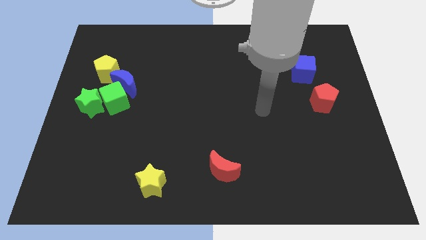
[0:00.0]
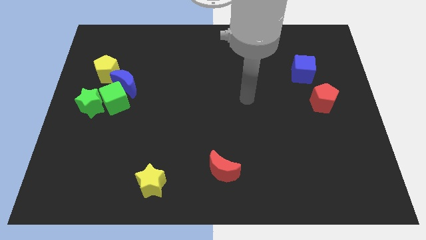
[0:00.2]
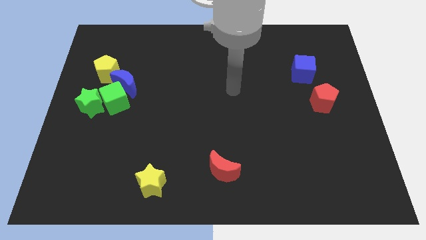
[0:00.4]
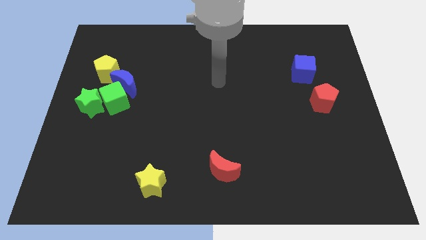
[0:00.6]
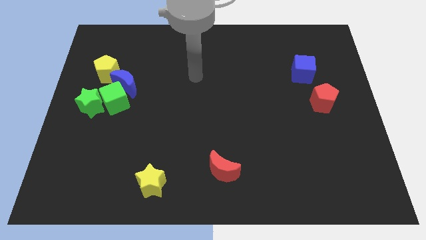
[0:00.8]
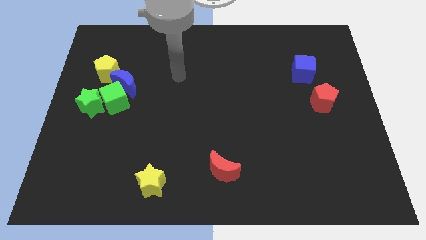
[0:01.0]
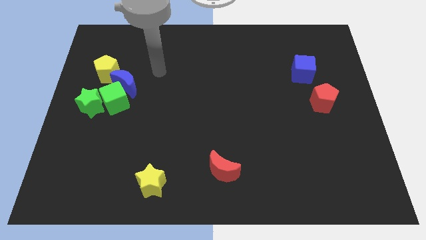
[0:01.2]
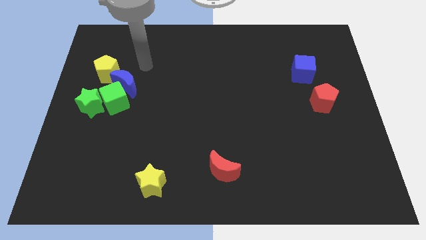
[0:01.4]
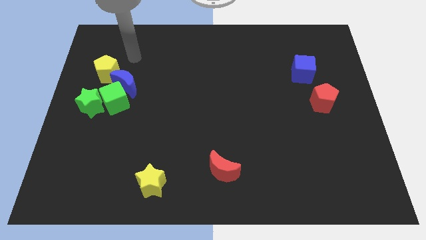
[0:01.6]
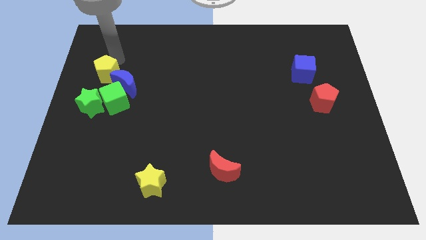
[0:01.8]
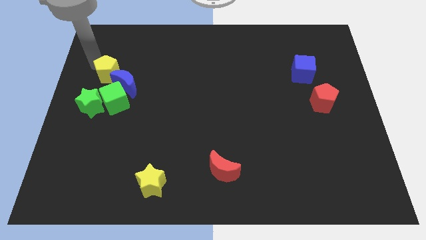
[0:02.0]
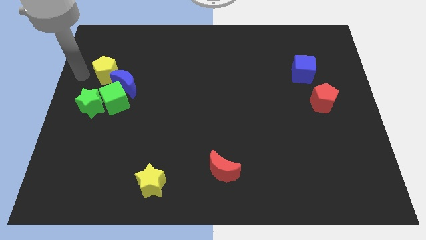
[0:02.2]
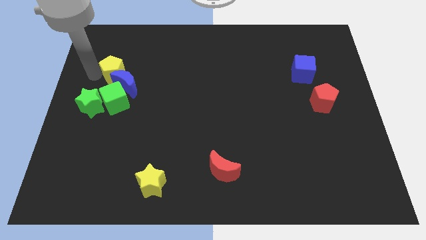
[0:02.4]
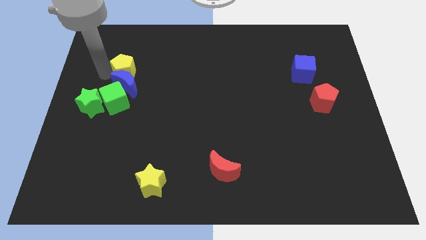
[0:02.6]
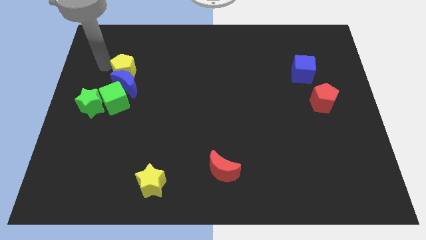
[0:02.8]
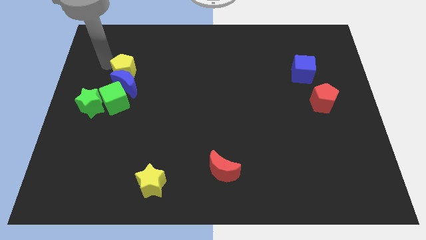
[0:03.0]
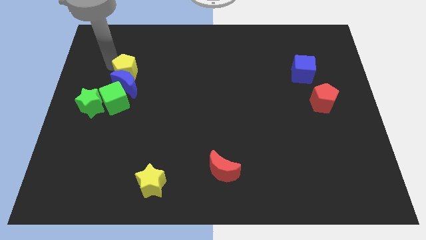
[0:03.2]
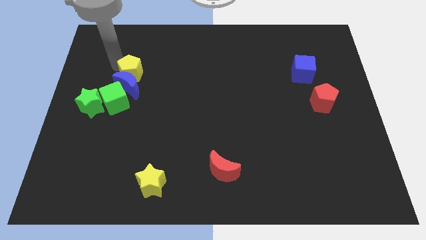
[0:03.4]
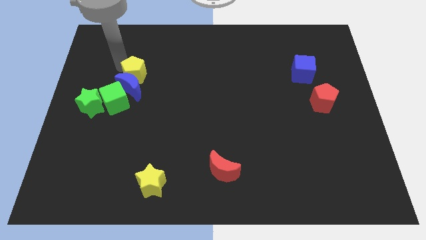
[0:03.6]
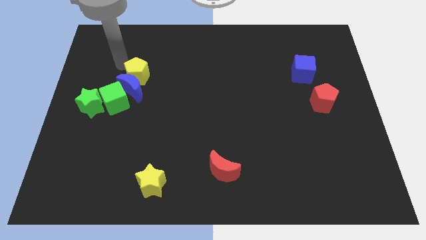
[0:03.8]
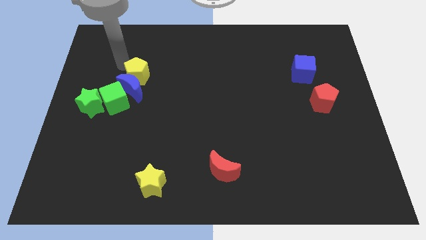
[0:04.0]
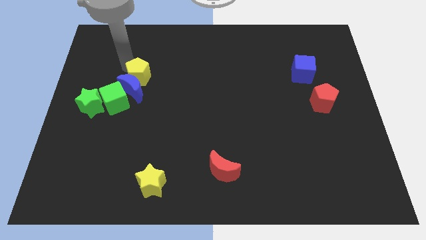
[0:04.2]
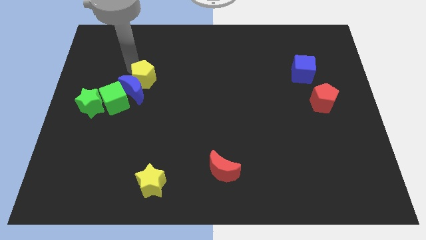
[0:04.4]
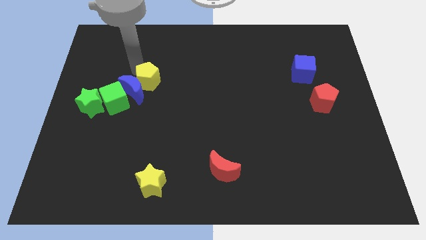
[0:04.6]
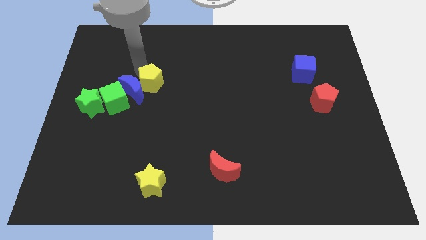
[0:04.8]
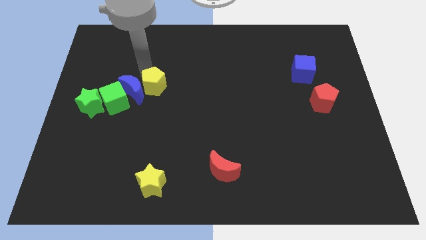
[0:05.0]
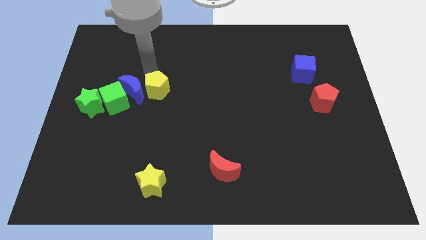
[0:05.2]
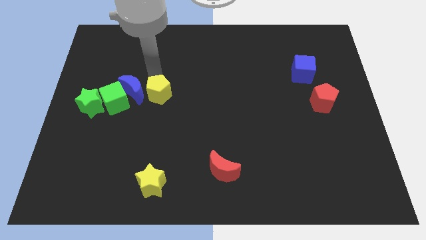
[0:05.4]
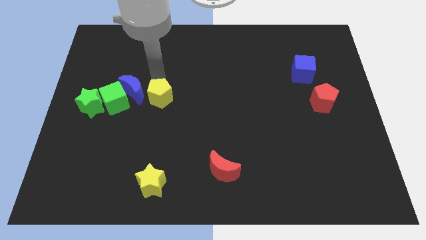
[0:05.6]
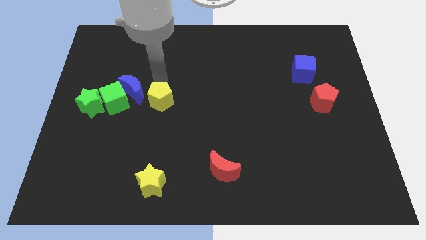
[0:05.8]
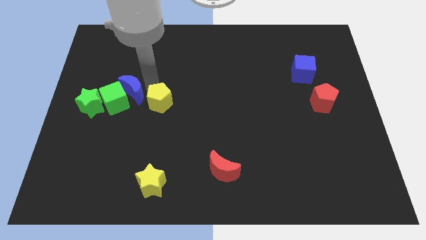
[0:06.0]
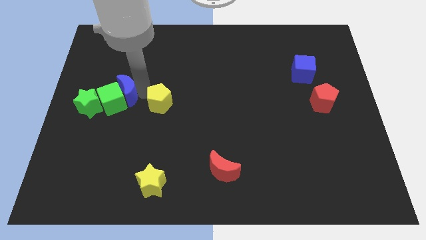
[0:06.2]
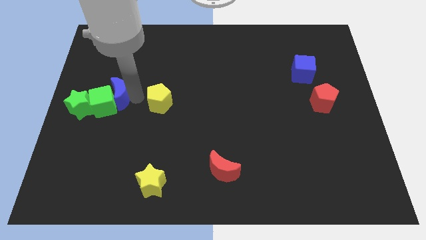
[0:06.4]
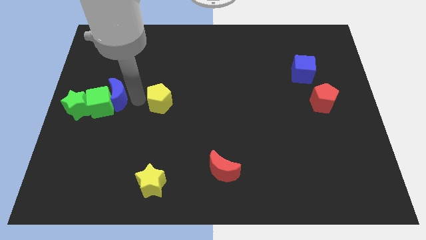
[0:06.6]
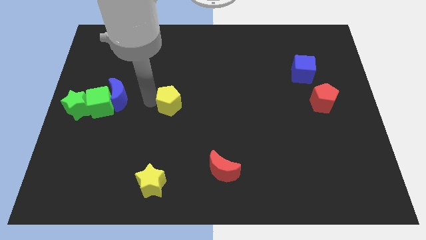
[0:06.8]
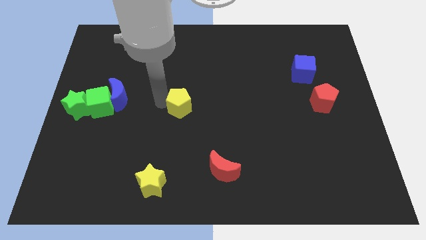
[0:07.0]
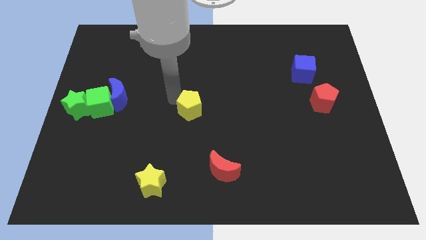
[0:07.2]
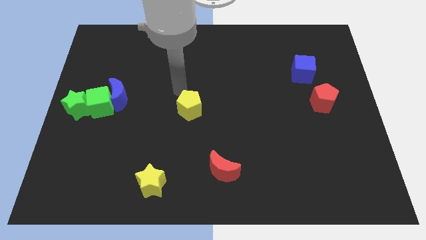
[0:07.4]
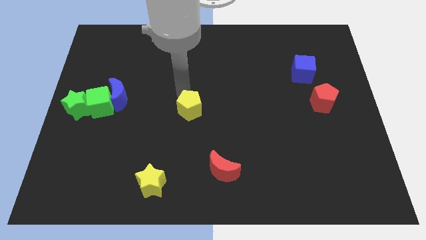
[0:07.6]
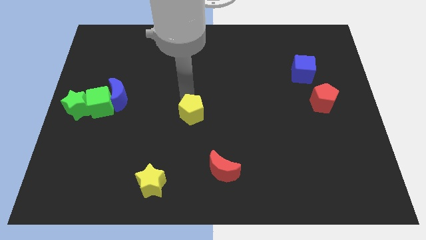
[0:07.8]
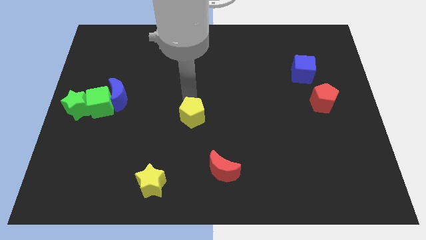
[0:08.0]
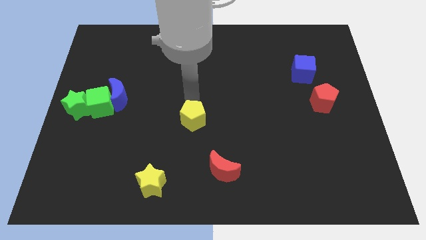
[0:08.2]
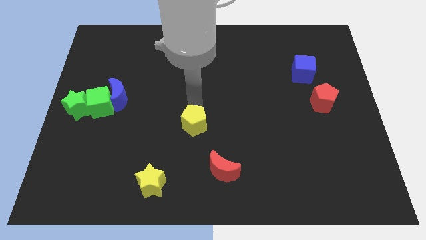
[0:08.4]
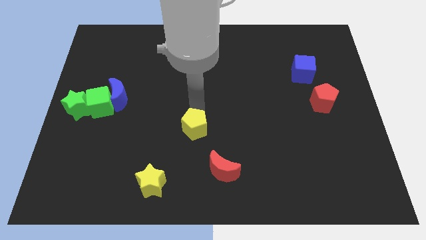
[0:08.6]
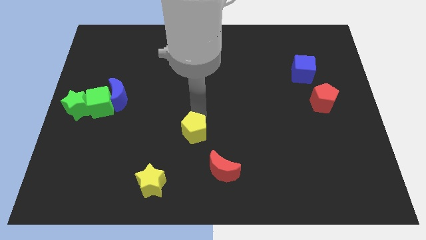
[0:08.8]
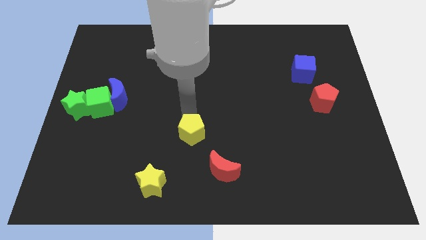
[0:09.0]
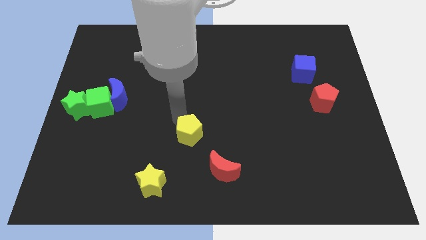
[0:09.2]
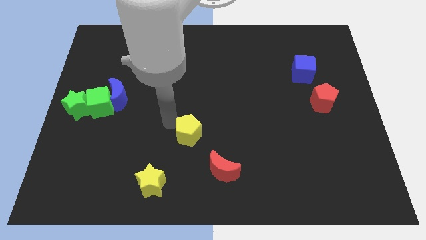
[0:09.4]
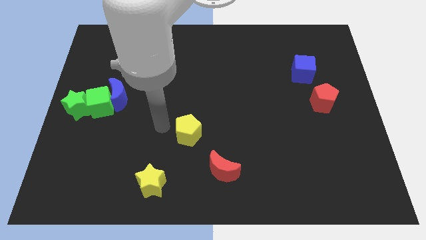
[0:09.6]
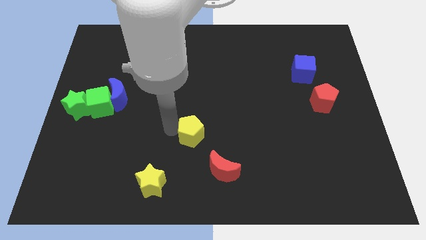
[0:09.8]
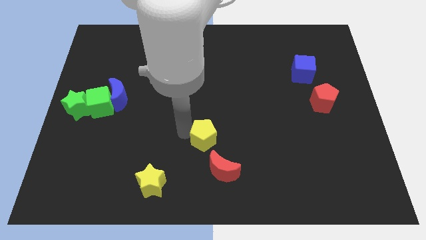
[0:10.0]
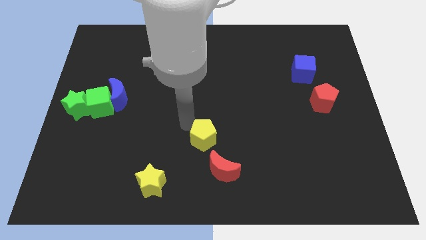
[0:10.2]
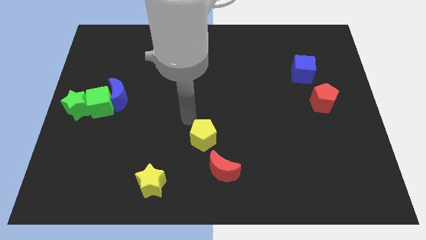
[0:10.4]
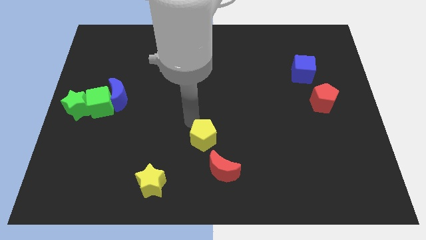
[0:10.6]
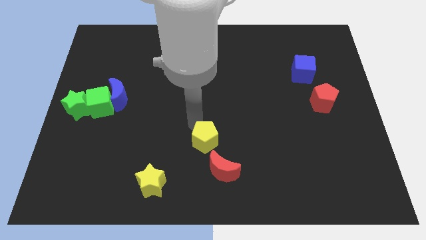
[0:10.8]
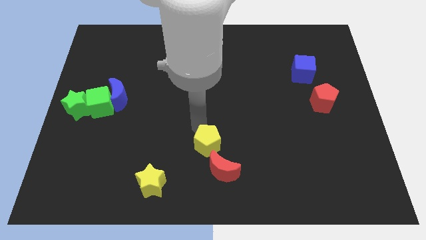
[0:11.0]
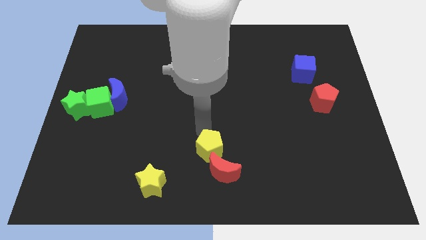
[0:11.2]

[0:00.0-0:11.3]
move the yellow pentagon towards the red moon

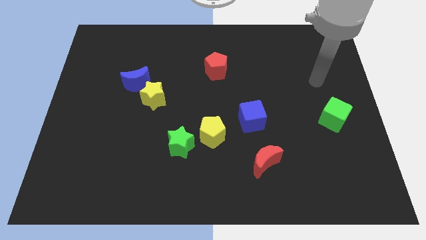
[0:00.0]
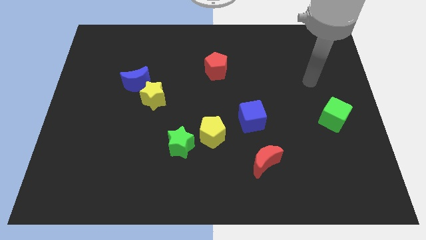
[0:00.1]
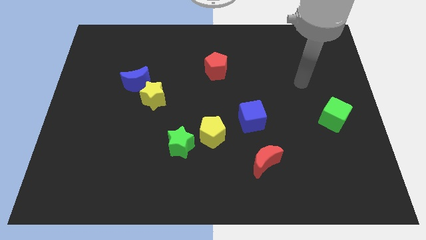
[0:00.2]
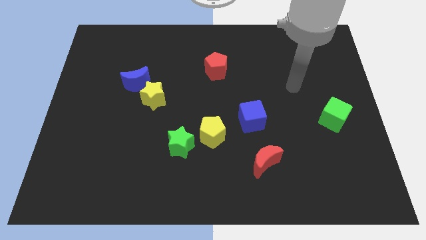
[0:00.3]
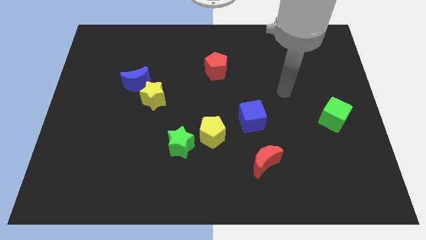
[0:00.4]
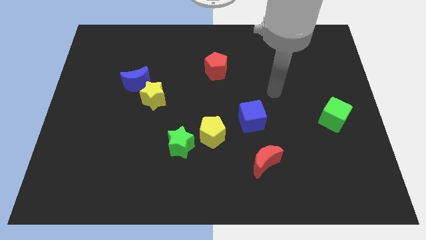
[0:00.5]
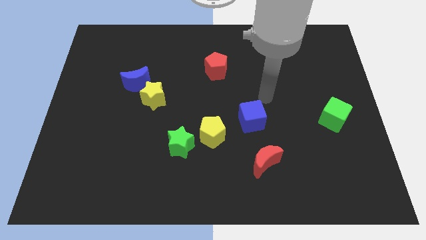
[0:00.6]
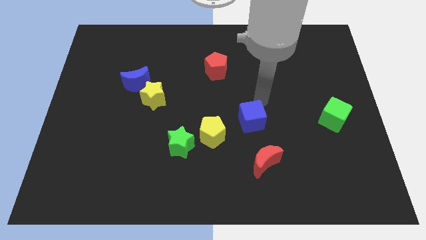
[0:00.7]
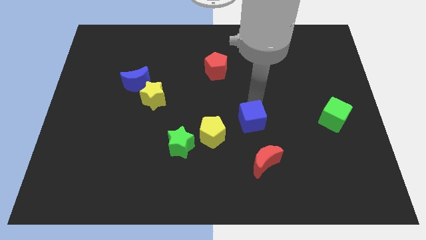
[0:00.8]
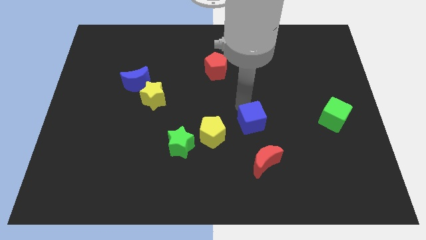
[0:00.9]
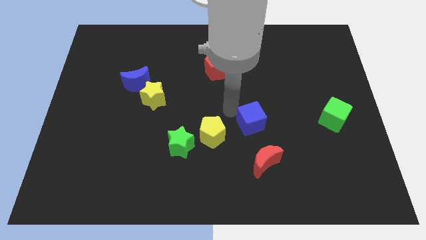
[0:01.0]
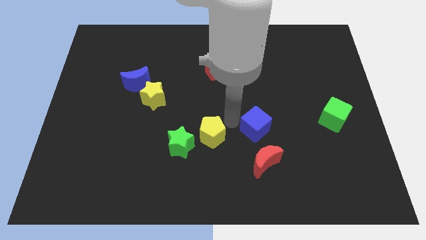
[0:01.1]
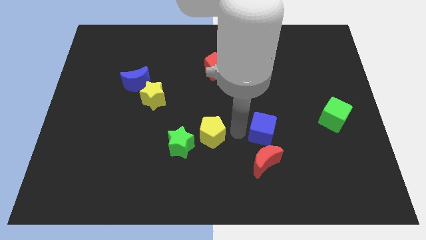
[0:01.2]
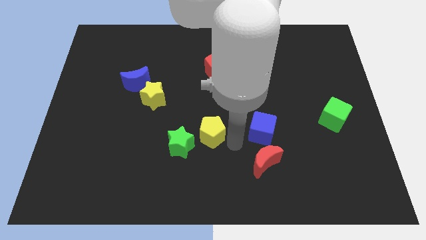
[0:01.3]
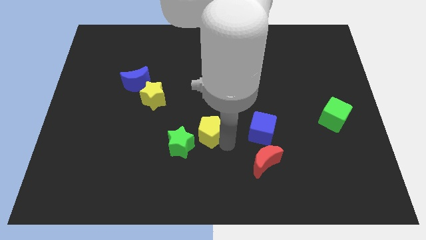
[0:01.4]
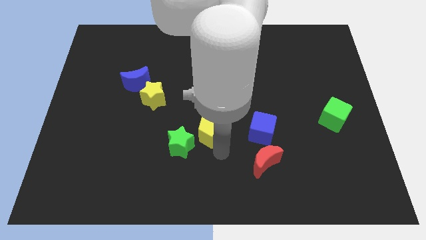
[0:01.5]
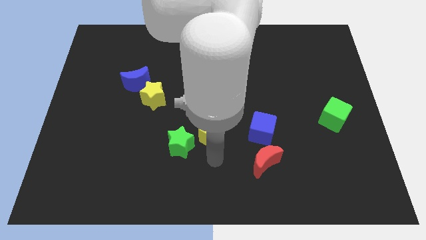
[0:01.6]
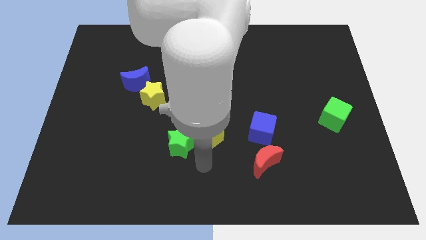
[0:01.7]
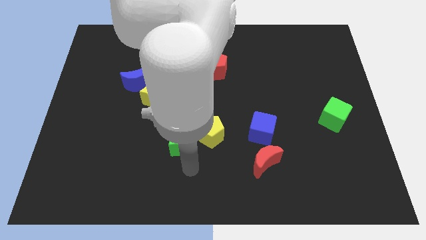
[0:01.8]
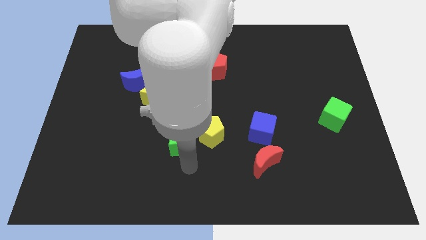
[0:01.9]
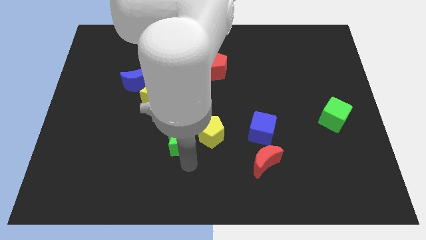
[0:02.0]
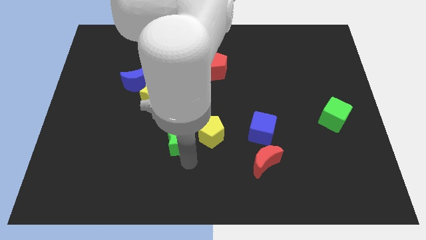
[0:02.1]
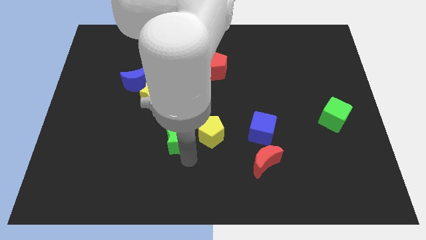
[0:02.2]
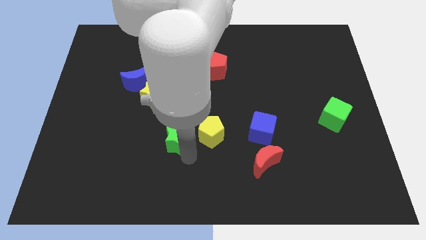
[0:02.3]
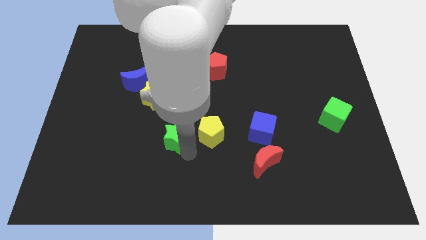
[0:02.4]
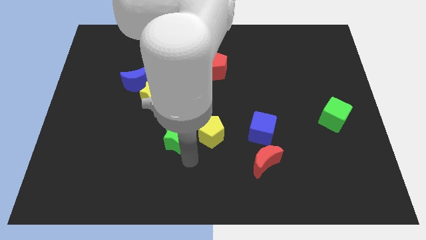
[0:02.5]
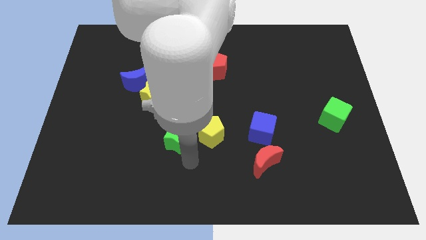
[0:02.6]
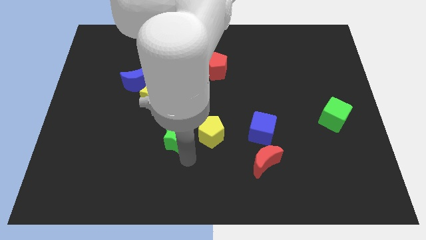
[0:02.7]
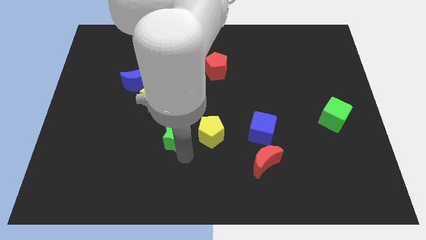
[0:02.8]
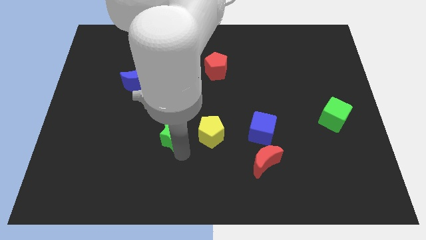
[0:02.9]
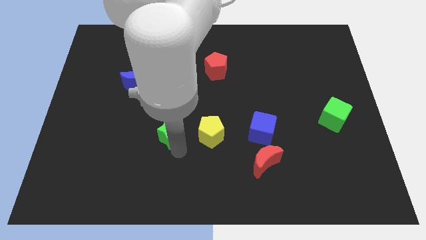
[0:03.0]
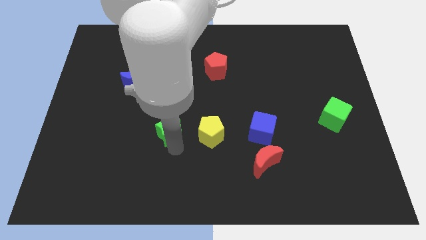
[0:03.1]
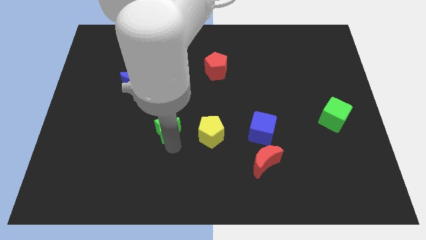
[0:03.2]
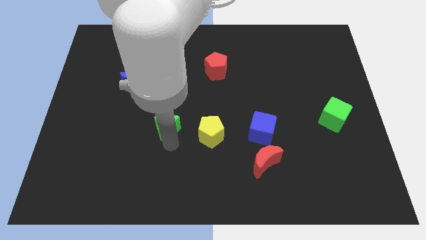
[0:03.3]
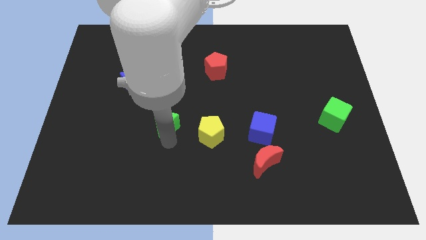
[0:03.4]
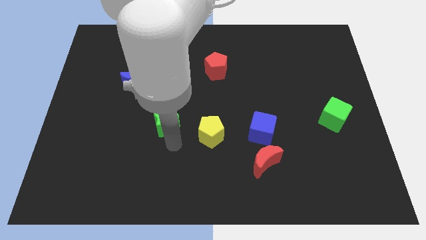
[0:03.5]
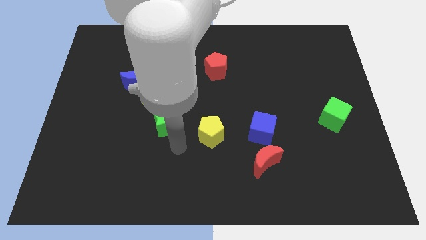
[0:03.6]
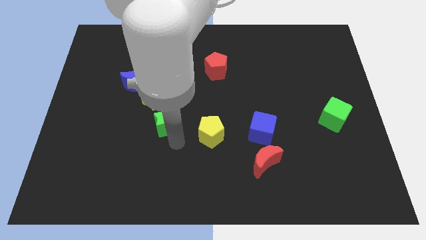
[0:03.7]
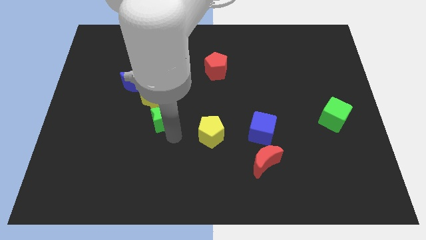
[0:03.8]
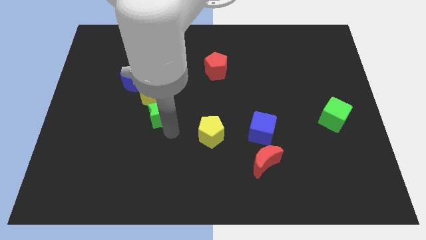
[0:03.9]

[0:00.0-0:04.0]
put the green star to the yellow star
